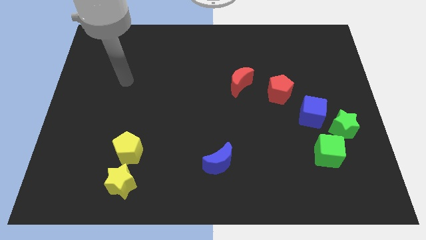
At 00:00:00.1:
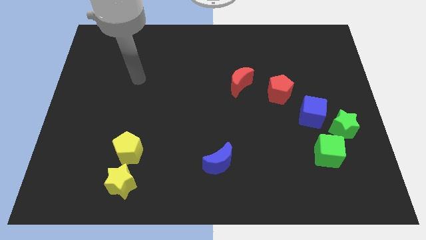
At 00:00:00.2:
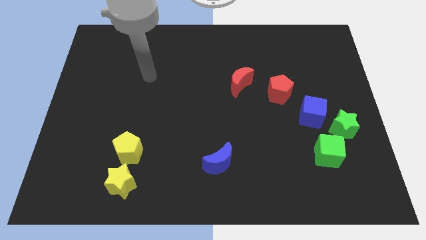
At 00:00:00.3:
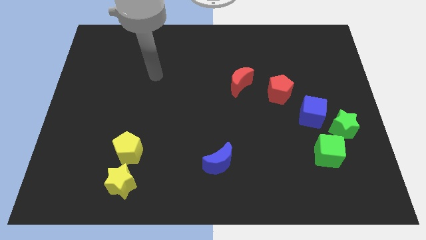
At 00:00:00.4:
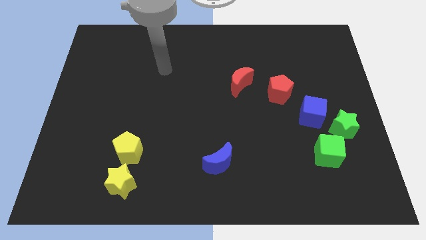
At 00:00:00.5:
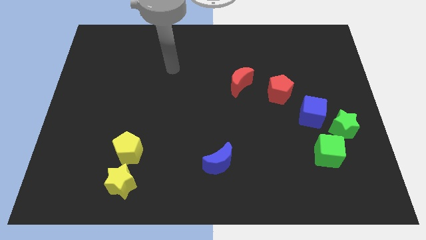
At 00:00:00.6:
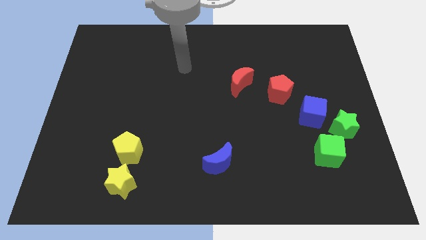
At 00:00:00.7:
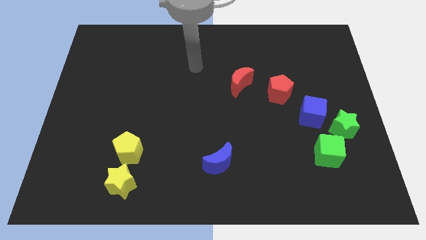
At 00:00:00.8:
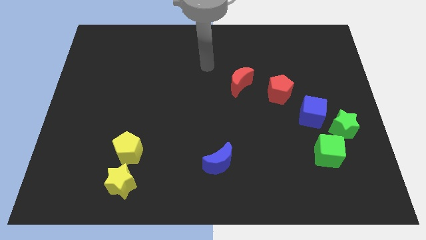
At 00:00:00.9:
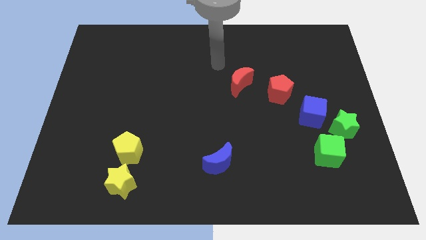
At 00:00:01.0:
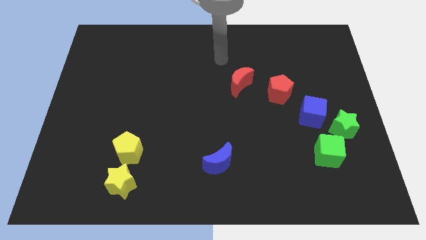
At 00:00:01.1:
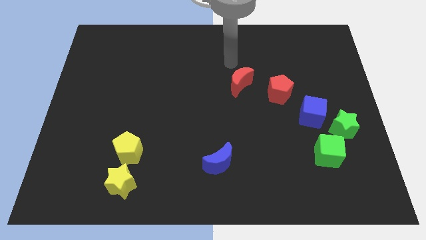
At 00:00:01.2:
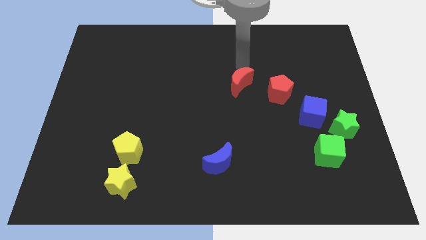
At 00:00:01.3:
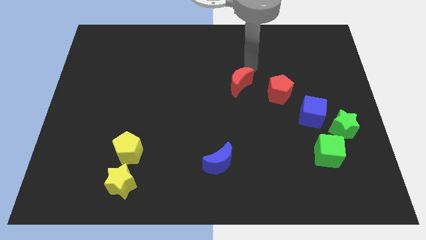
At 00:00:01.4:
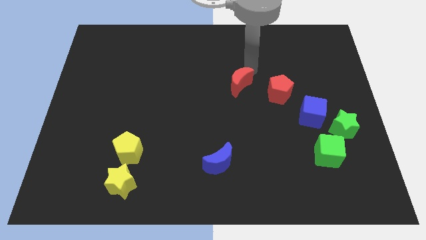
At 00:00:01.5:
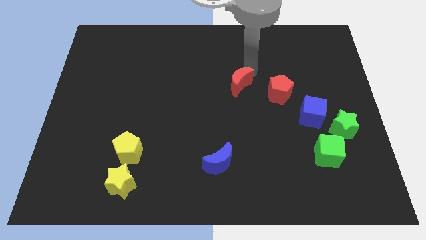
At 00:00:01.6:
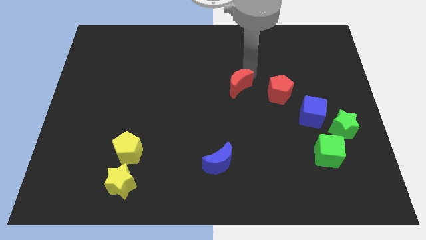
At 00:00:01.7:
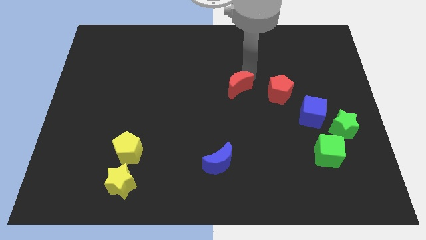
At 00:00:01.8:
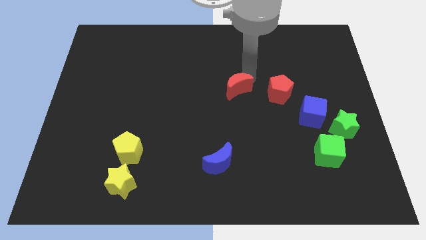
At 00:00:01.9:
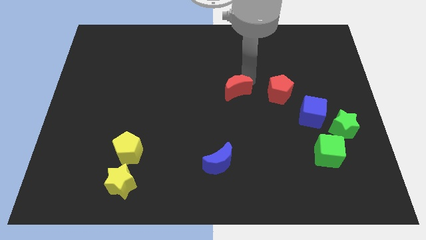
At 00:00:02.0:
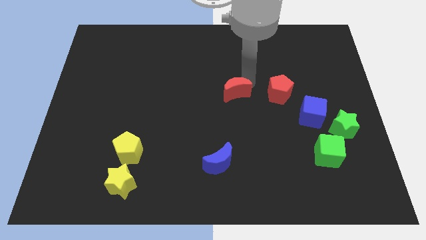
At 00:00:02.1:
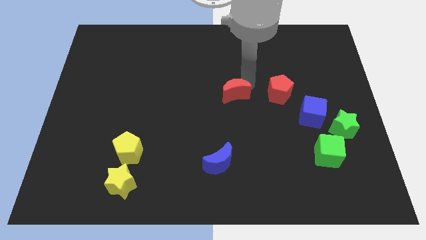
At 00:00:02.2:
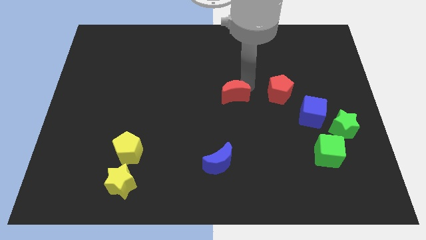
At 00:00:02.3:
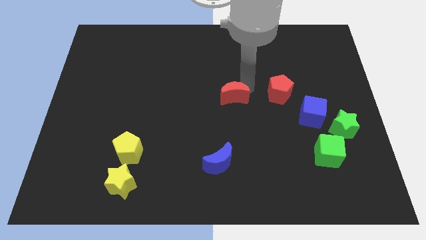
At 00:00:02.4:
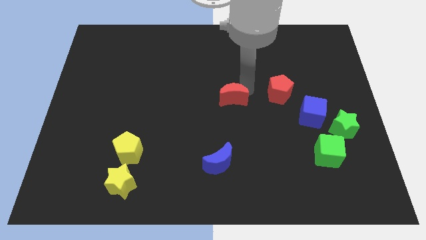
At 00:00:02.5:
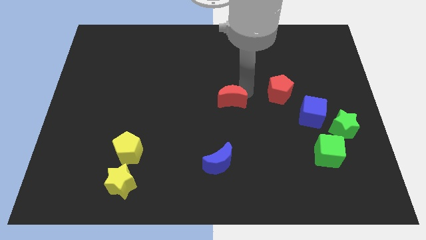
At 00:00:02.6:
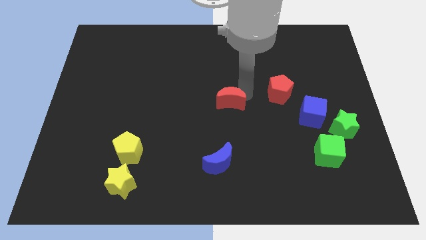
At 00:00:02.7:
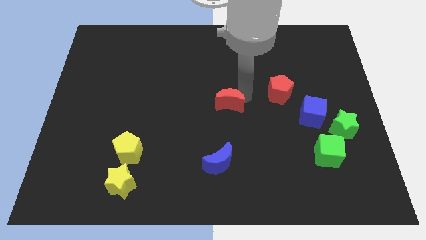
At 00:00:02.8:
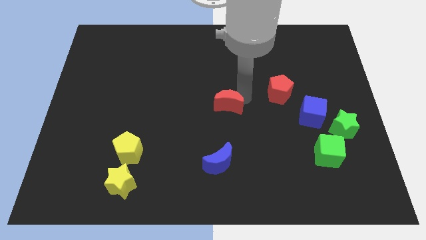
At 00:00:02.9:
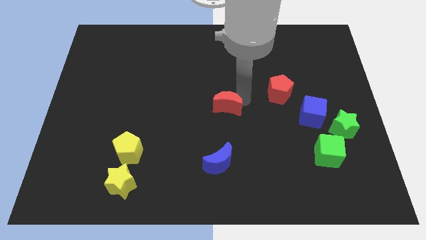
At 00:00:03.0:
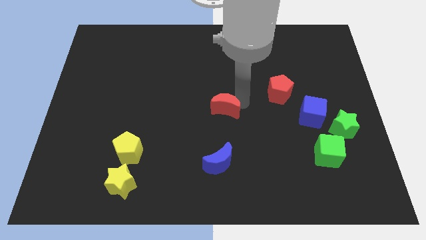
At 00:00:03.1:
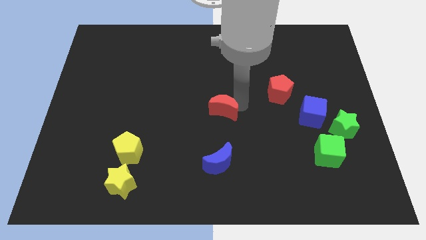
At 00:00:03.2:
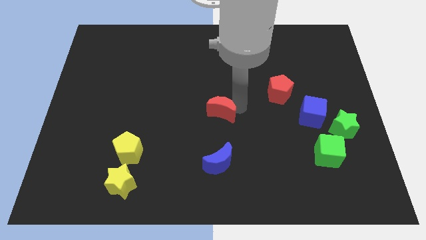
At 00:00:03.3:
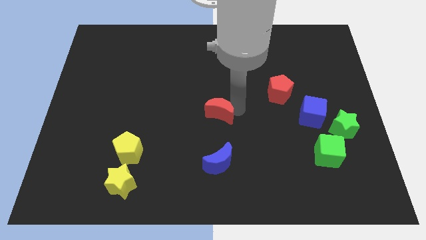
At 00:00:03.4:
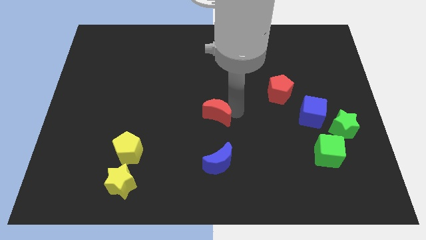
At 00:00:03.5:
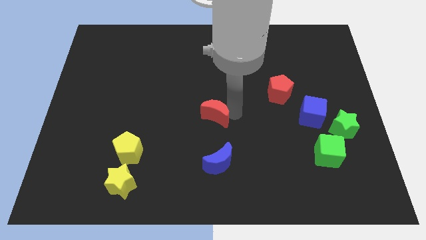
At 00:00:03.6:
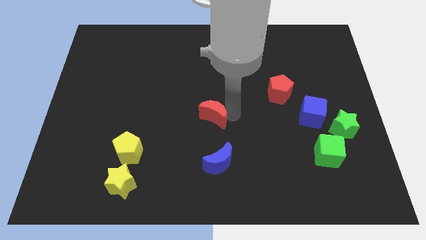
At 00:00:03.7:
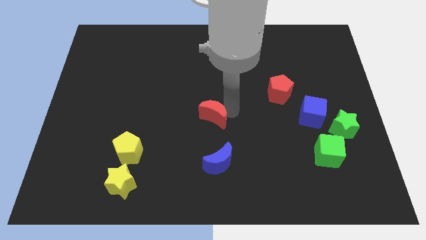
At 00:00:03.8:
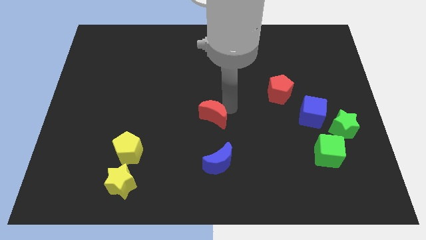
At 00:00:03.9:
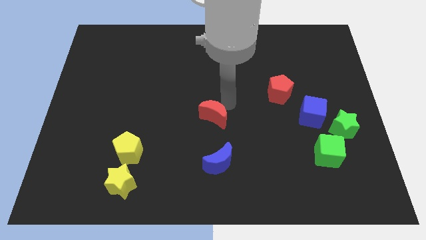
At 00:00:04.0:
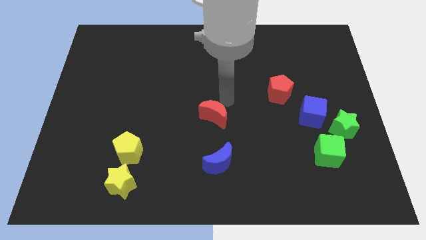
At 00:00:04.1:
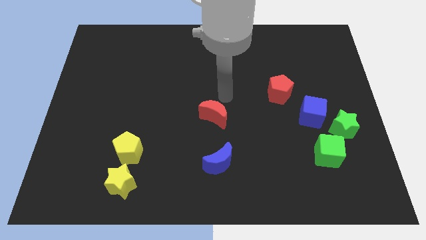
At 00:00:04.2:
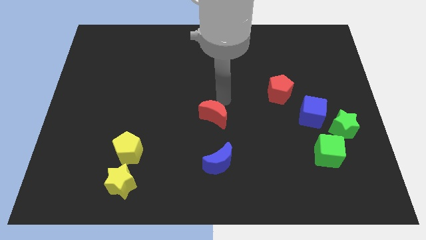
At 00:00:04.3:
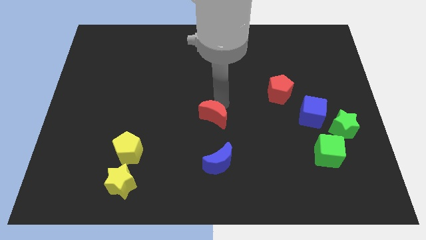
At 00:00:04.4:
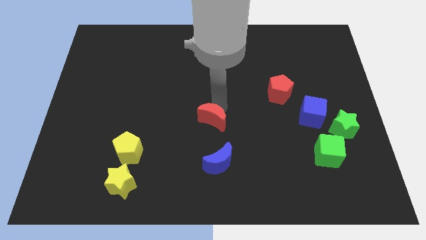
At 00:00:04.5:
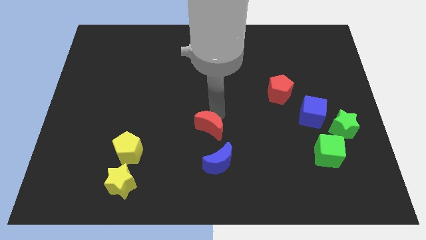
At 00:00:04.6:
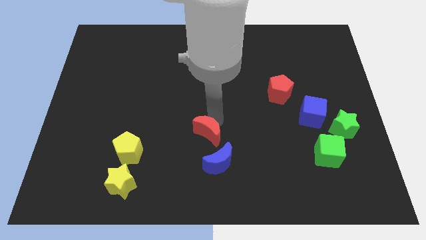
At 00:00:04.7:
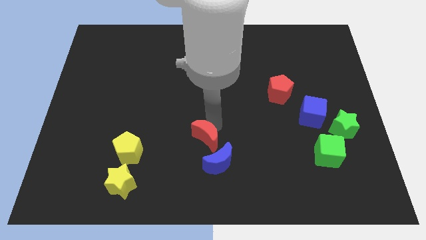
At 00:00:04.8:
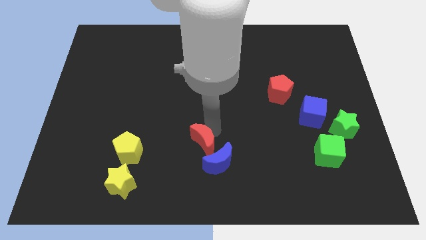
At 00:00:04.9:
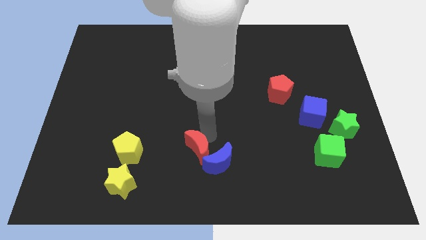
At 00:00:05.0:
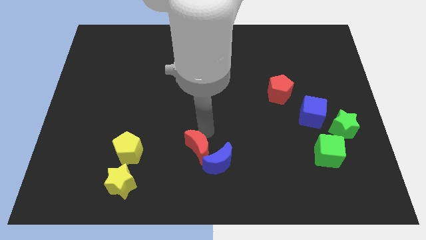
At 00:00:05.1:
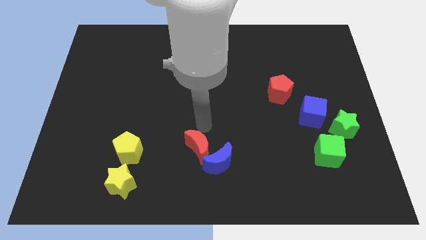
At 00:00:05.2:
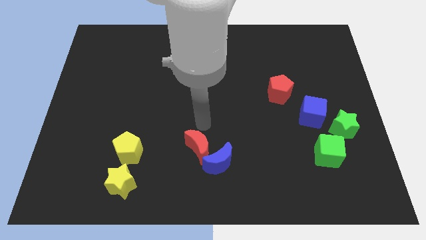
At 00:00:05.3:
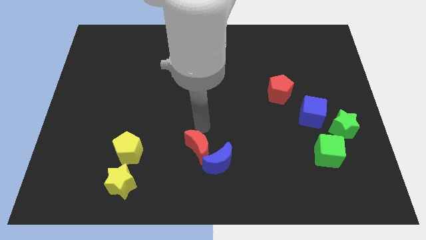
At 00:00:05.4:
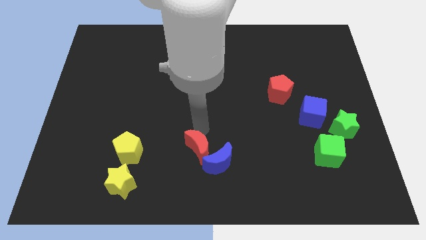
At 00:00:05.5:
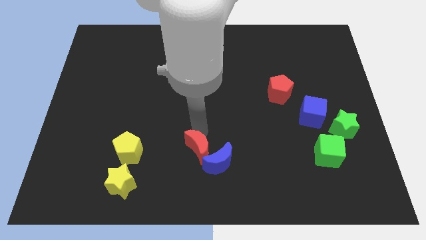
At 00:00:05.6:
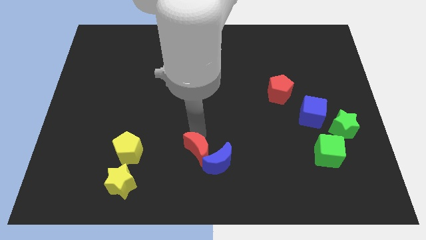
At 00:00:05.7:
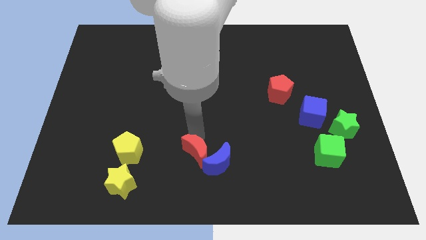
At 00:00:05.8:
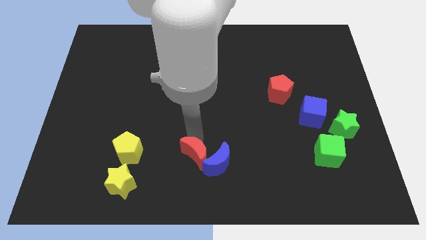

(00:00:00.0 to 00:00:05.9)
push the red moon to the bottom side

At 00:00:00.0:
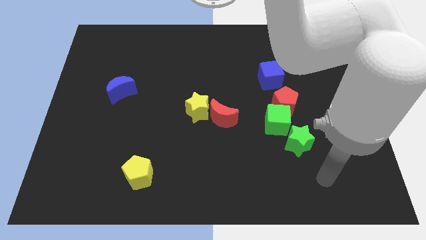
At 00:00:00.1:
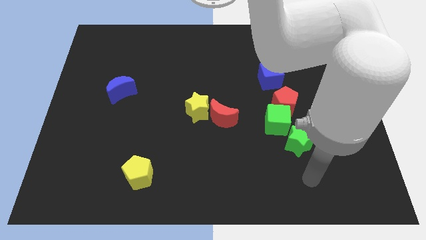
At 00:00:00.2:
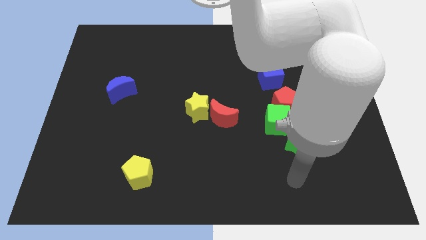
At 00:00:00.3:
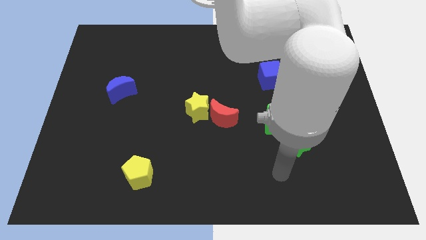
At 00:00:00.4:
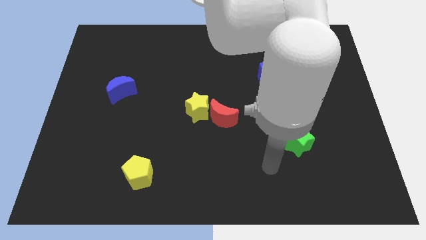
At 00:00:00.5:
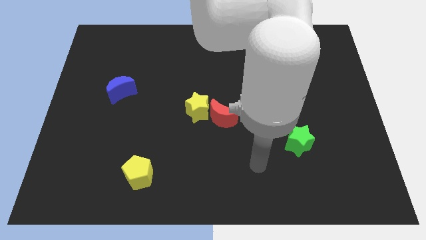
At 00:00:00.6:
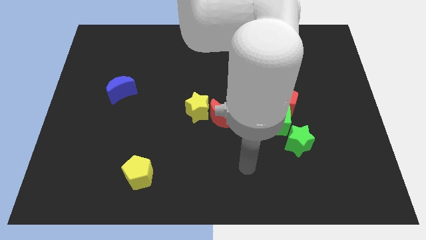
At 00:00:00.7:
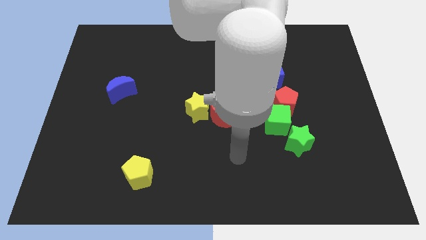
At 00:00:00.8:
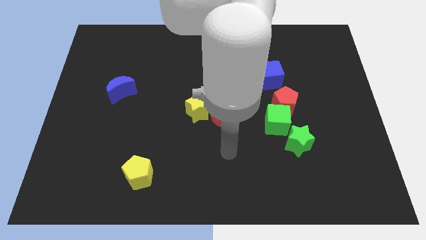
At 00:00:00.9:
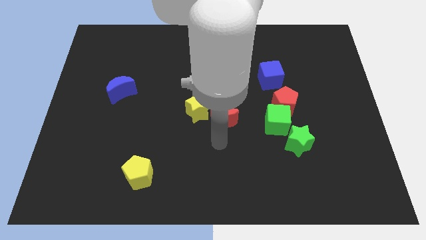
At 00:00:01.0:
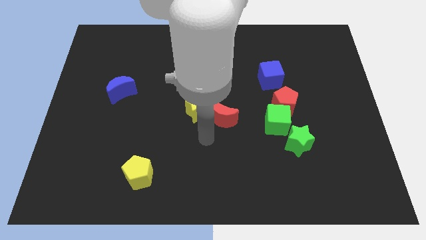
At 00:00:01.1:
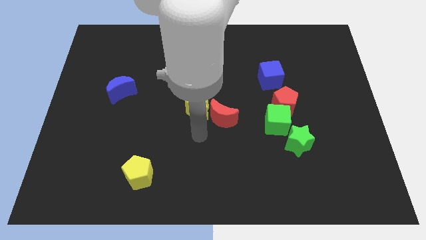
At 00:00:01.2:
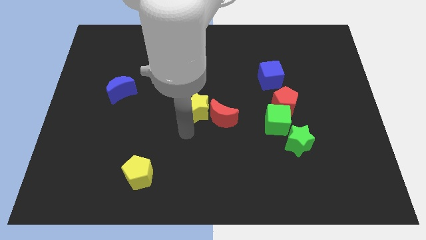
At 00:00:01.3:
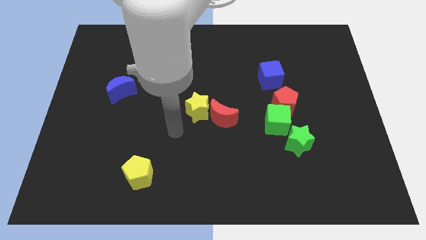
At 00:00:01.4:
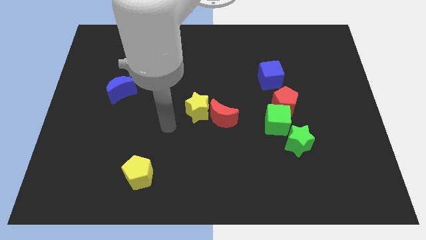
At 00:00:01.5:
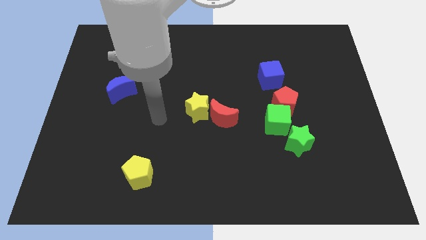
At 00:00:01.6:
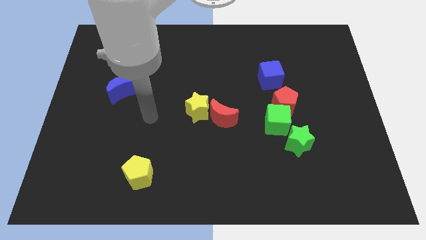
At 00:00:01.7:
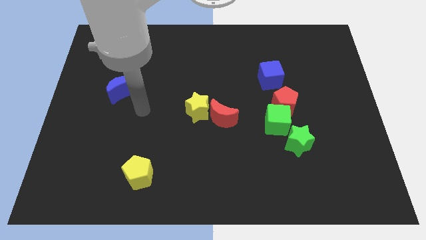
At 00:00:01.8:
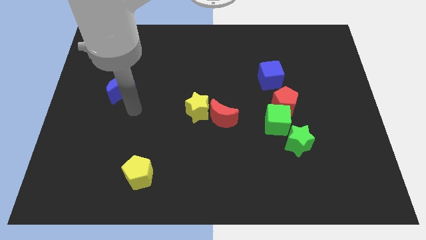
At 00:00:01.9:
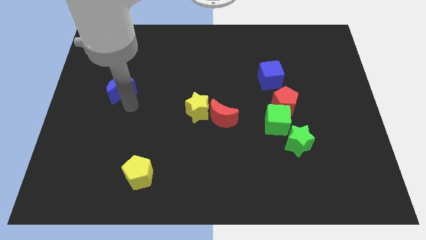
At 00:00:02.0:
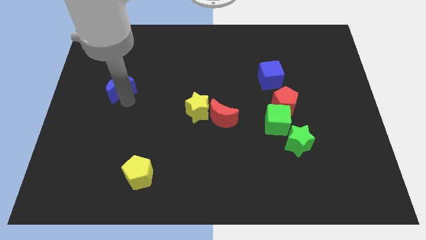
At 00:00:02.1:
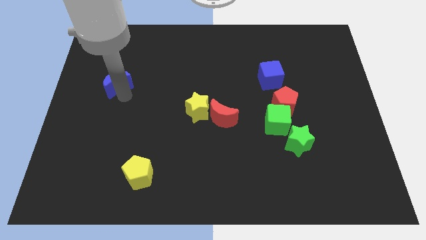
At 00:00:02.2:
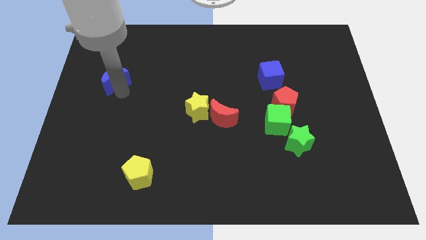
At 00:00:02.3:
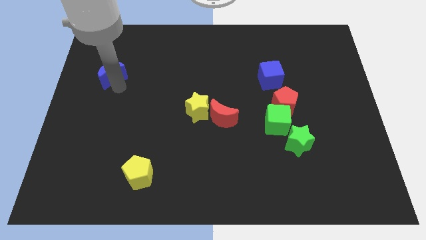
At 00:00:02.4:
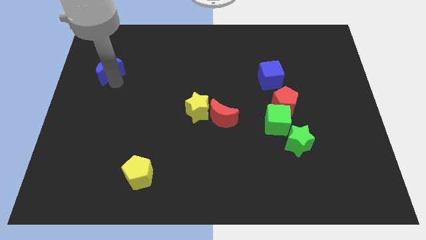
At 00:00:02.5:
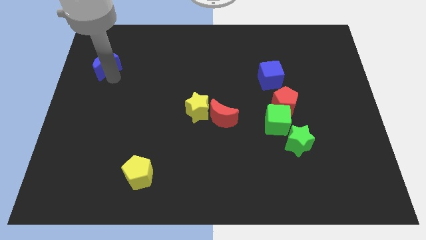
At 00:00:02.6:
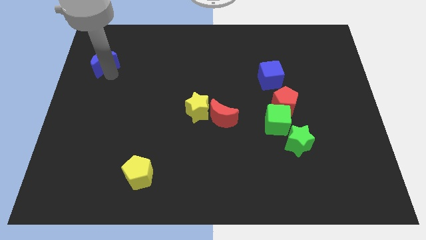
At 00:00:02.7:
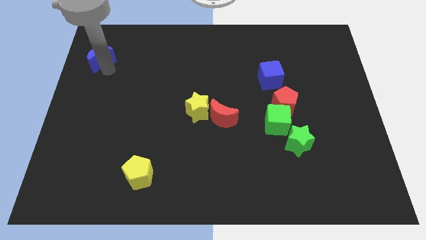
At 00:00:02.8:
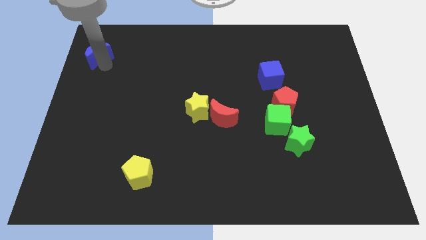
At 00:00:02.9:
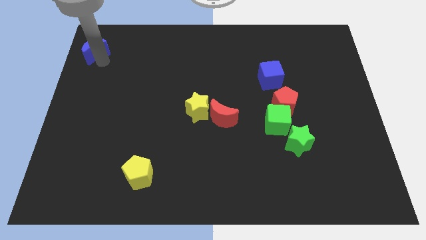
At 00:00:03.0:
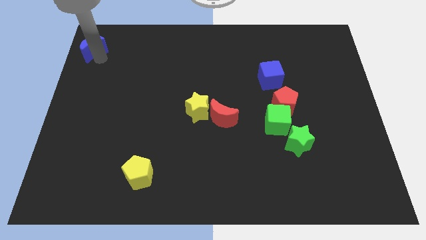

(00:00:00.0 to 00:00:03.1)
put the blue moon to the top left corner
